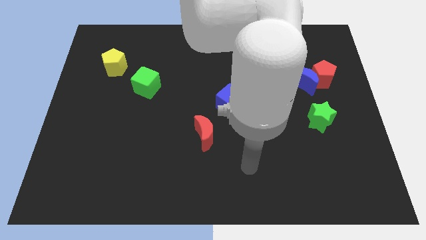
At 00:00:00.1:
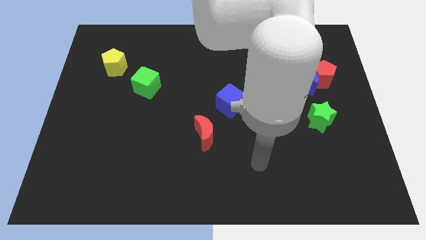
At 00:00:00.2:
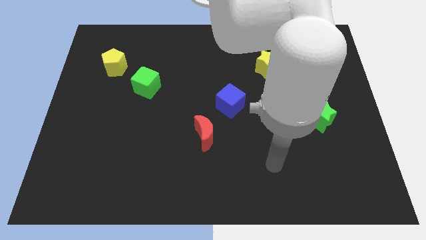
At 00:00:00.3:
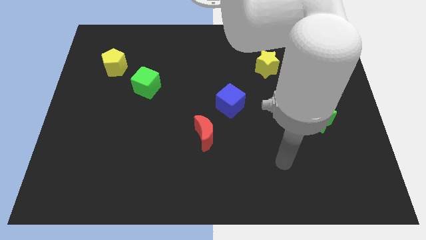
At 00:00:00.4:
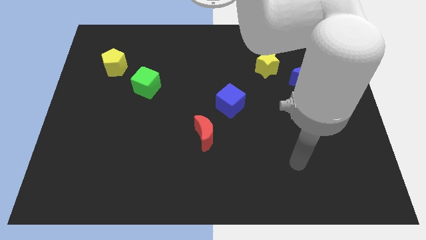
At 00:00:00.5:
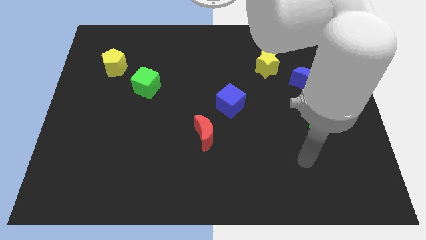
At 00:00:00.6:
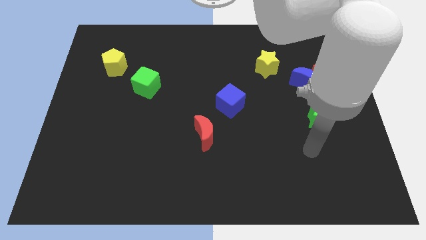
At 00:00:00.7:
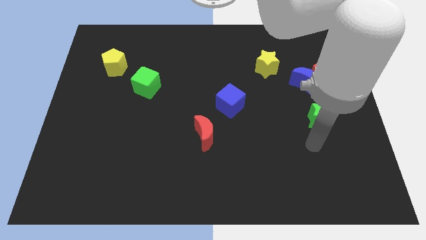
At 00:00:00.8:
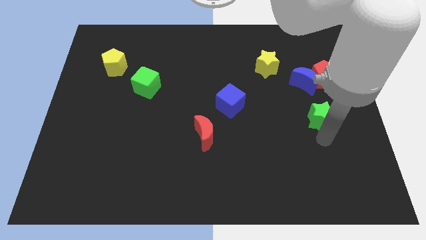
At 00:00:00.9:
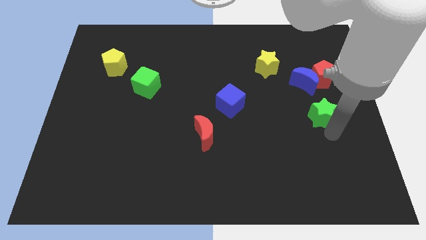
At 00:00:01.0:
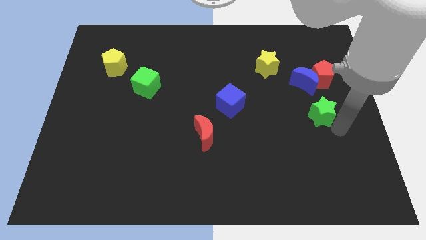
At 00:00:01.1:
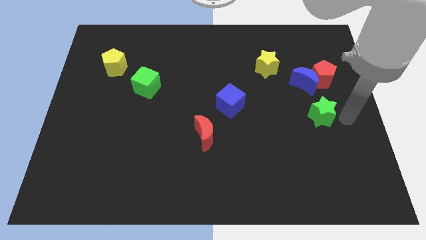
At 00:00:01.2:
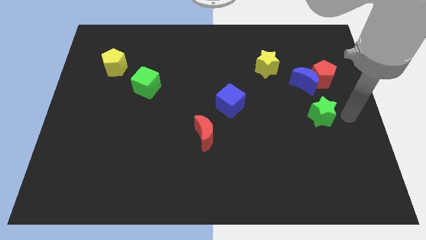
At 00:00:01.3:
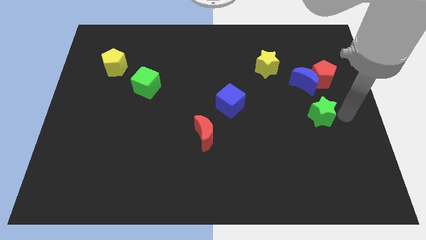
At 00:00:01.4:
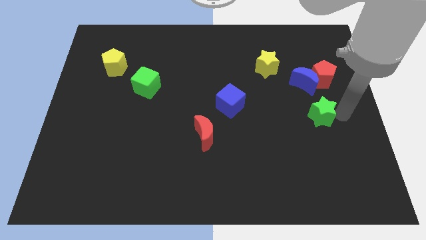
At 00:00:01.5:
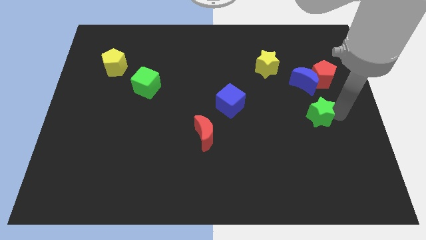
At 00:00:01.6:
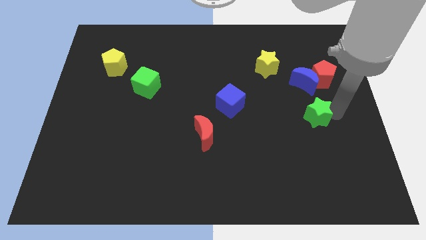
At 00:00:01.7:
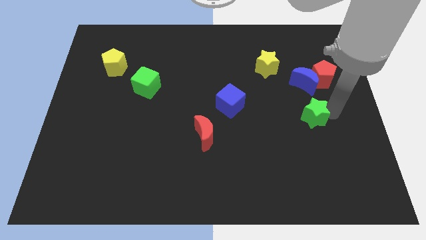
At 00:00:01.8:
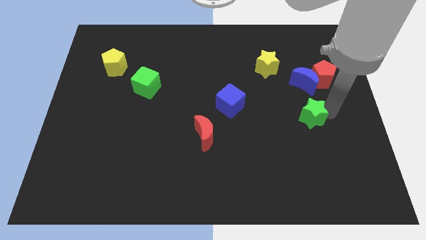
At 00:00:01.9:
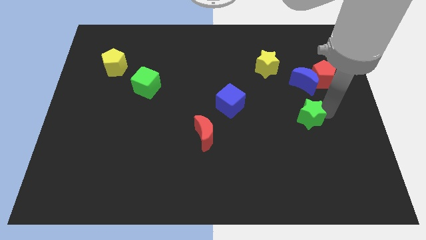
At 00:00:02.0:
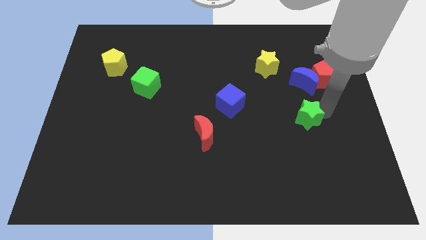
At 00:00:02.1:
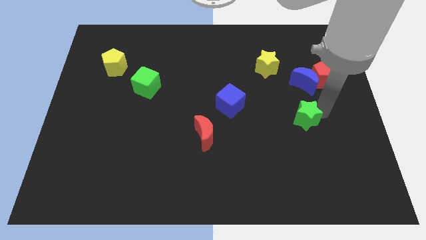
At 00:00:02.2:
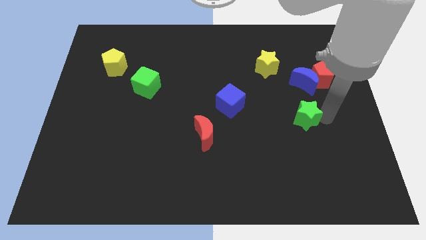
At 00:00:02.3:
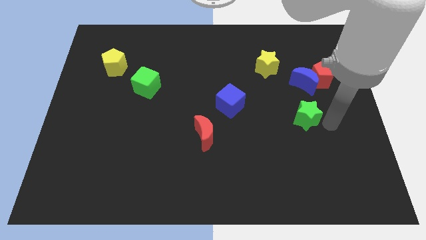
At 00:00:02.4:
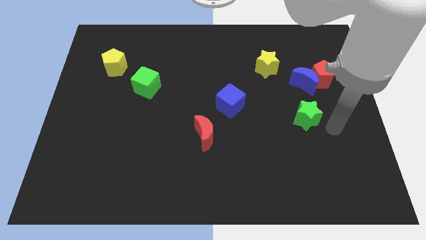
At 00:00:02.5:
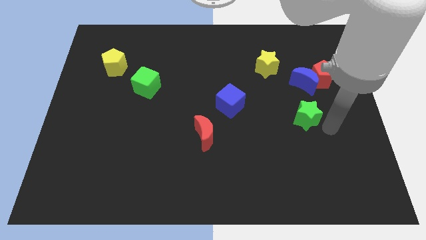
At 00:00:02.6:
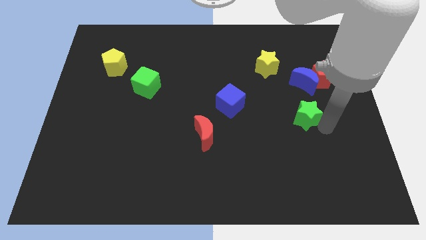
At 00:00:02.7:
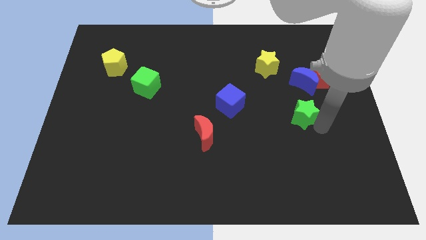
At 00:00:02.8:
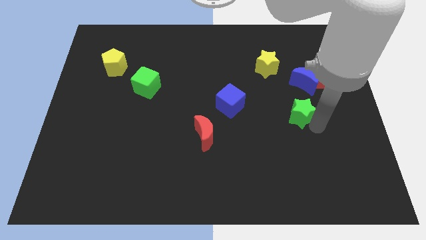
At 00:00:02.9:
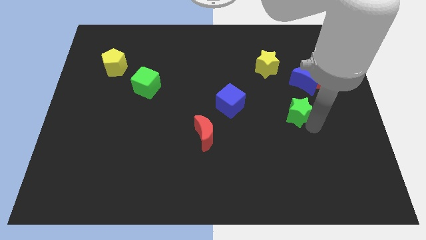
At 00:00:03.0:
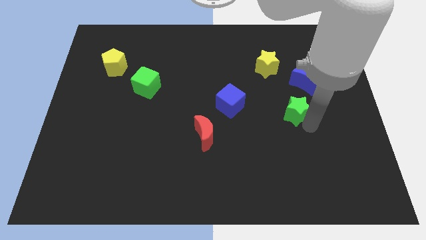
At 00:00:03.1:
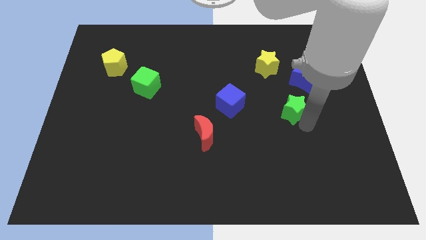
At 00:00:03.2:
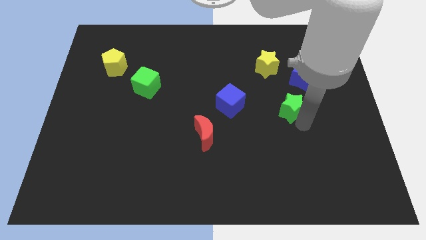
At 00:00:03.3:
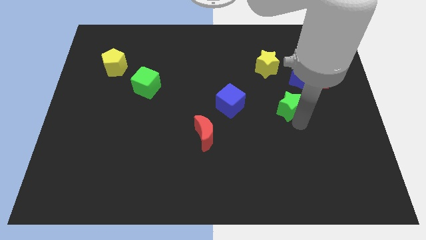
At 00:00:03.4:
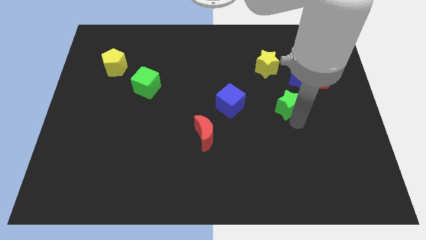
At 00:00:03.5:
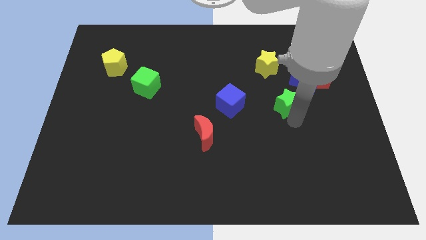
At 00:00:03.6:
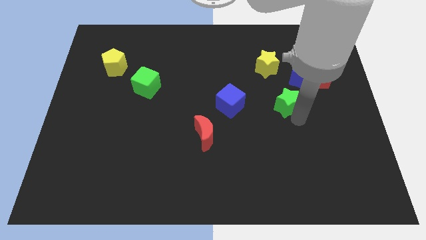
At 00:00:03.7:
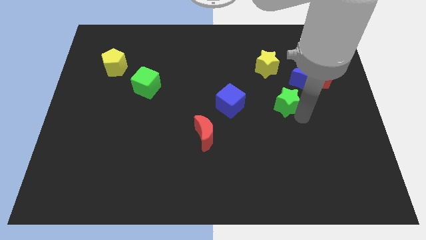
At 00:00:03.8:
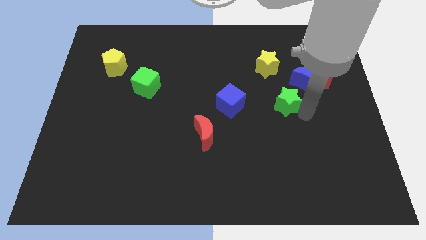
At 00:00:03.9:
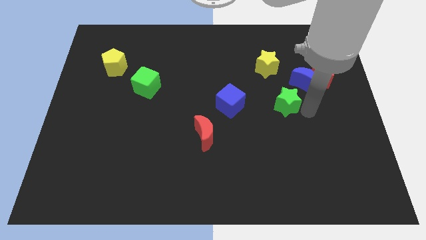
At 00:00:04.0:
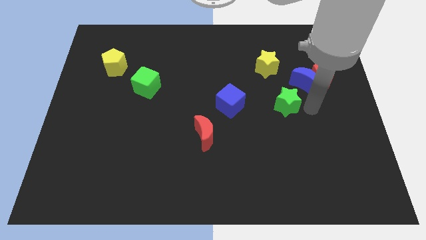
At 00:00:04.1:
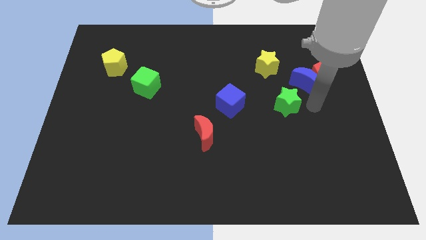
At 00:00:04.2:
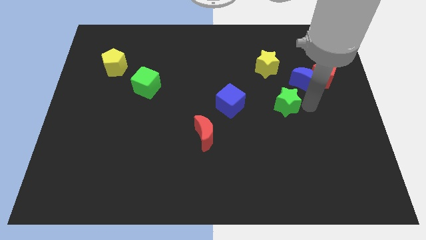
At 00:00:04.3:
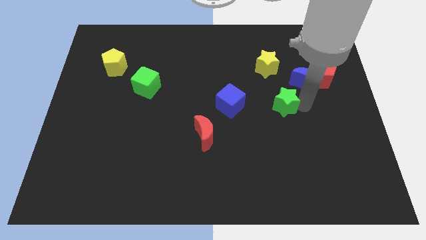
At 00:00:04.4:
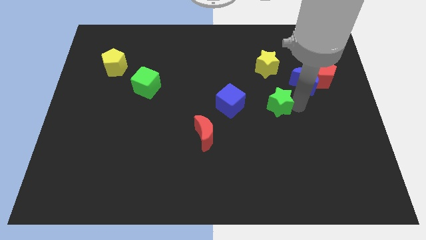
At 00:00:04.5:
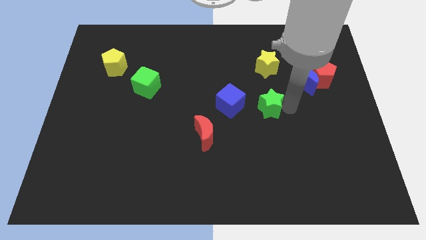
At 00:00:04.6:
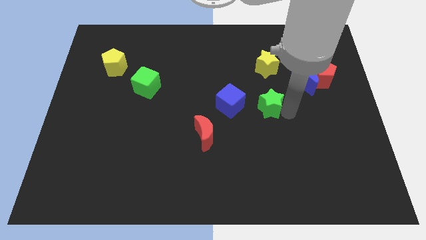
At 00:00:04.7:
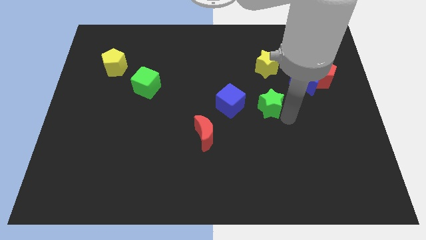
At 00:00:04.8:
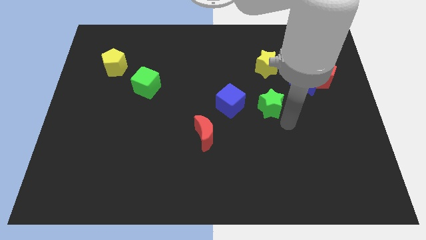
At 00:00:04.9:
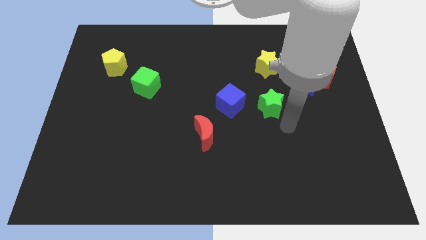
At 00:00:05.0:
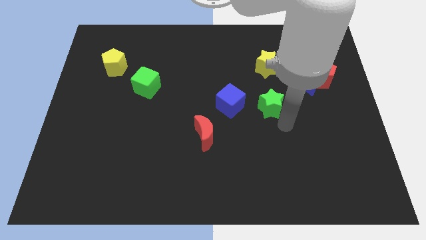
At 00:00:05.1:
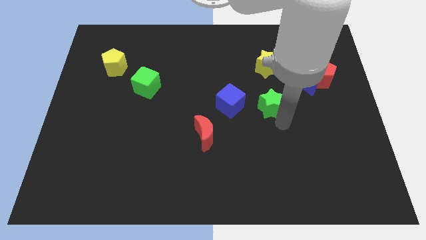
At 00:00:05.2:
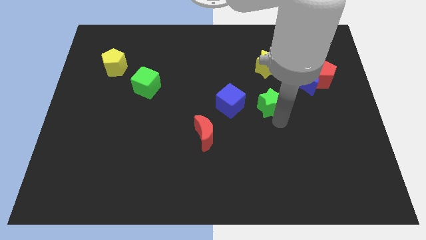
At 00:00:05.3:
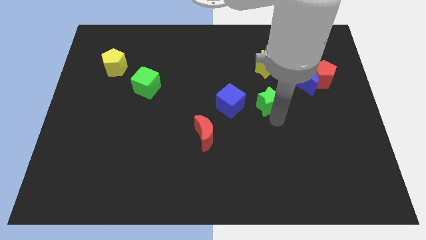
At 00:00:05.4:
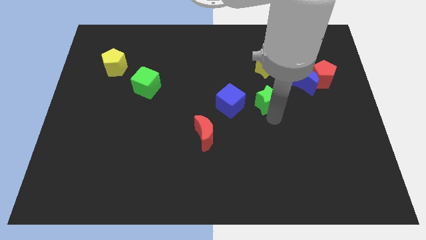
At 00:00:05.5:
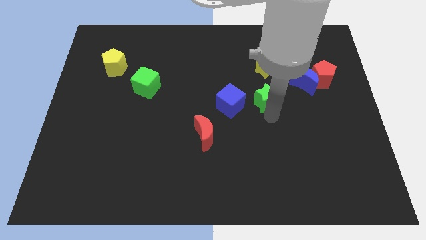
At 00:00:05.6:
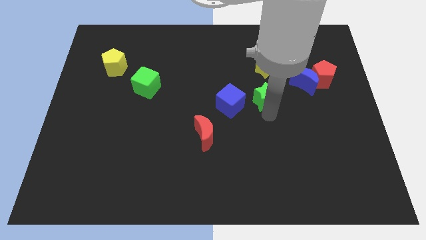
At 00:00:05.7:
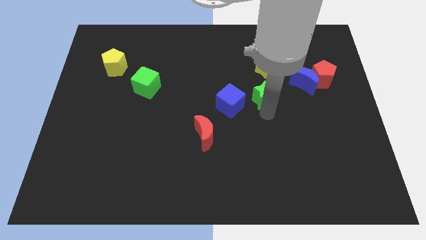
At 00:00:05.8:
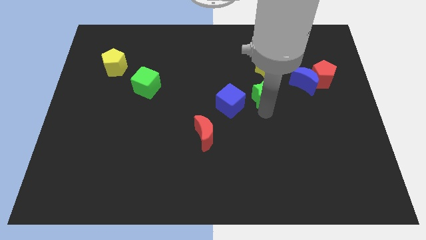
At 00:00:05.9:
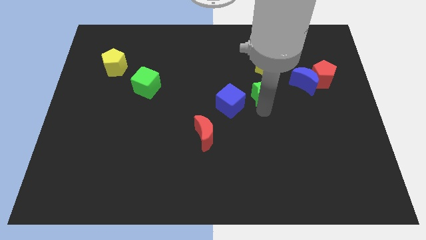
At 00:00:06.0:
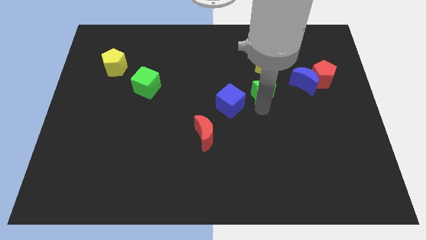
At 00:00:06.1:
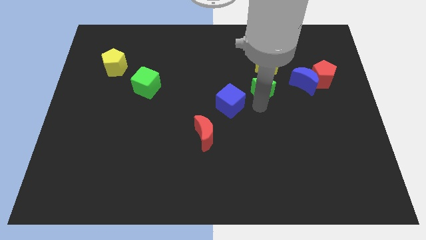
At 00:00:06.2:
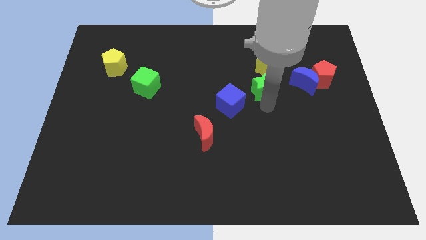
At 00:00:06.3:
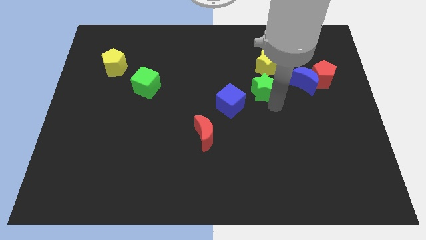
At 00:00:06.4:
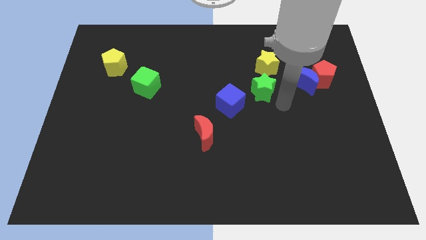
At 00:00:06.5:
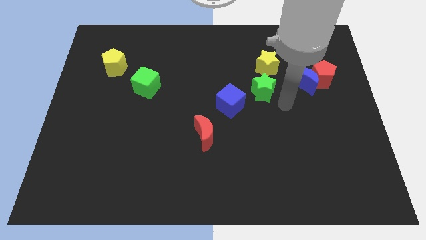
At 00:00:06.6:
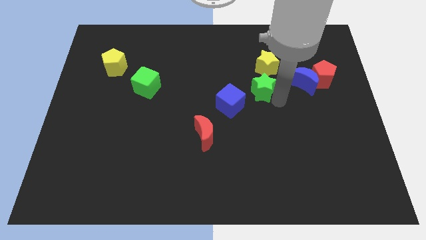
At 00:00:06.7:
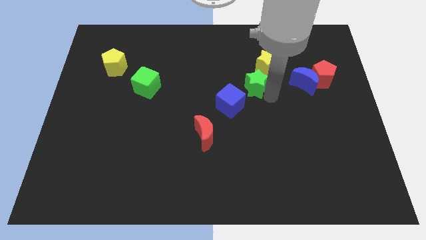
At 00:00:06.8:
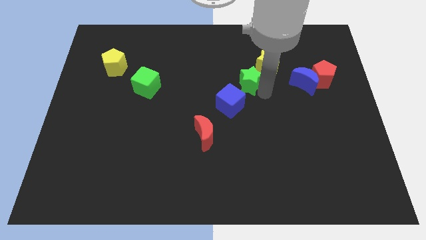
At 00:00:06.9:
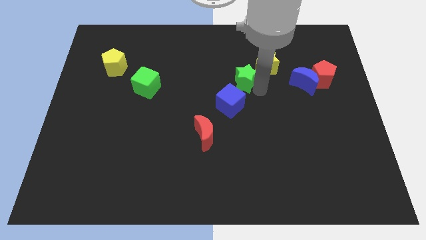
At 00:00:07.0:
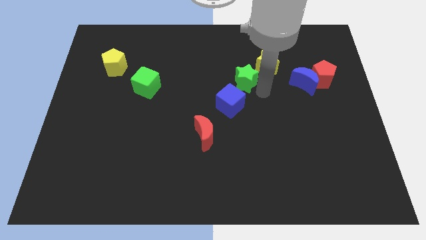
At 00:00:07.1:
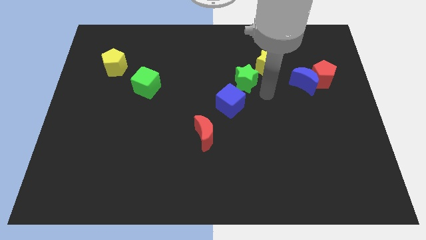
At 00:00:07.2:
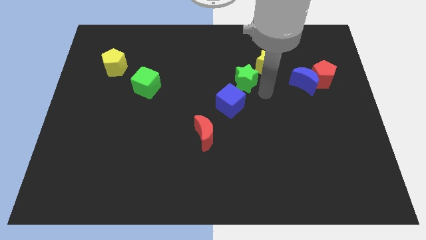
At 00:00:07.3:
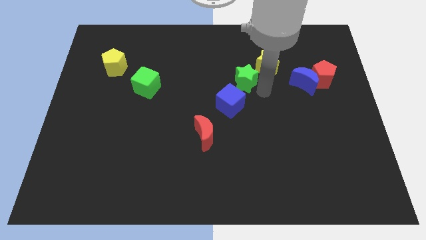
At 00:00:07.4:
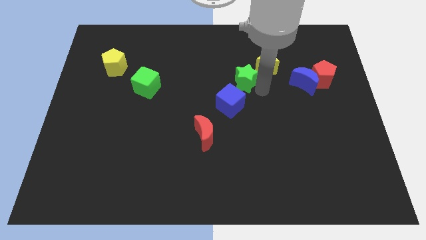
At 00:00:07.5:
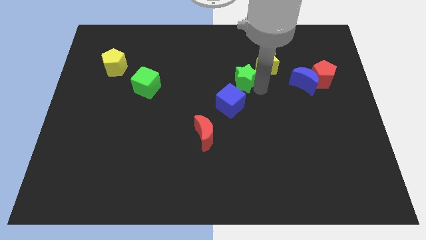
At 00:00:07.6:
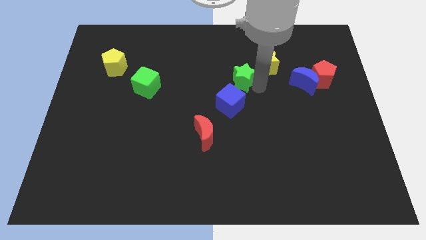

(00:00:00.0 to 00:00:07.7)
move the green star left of the yellow star
